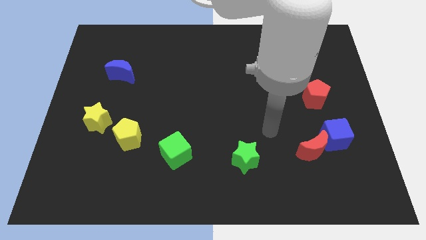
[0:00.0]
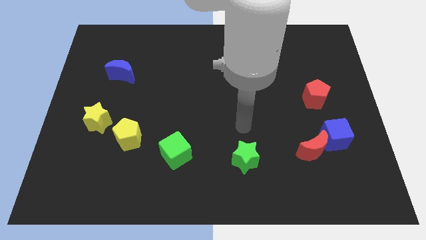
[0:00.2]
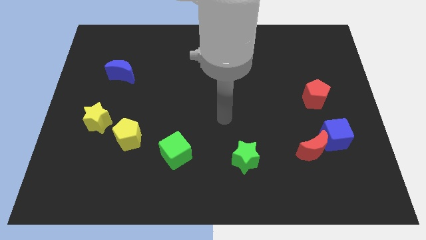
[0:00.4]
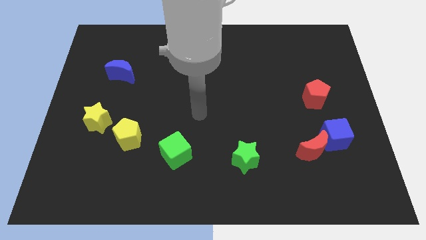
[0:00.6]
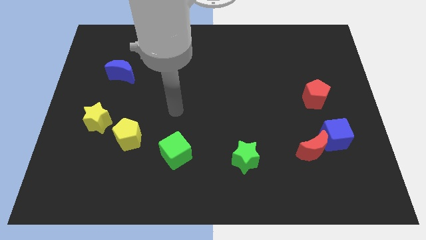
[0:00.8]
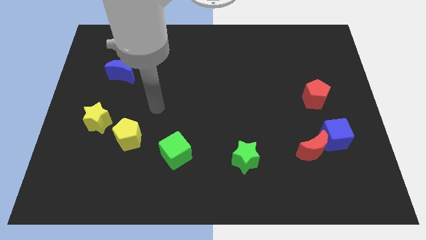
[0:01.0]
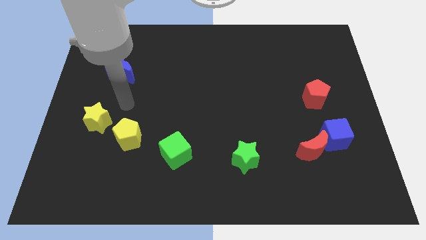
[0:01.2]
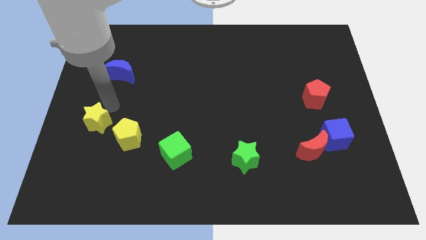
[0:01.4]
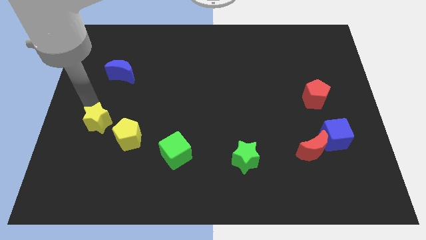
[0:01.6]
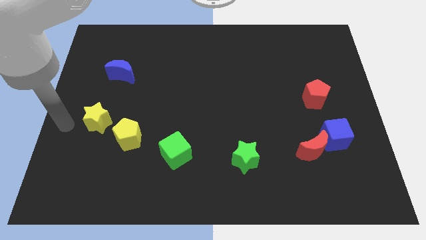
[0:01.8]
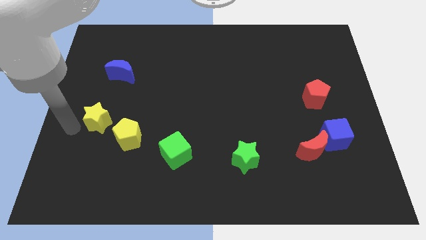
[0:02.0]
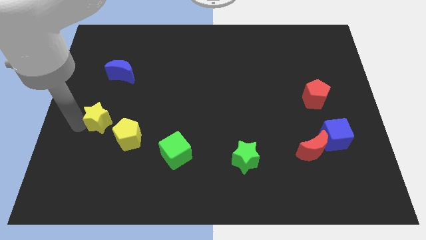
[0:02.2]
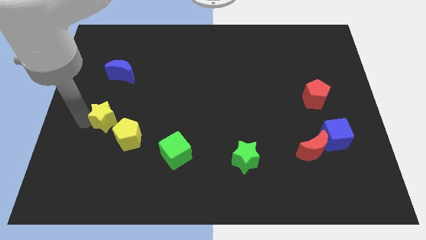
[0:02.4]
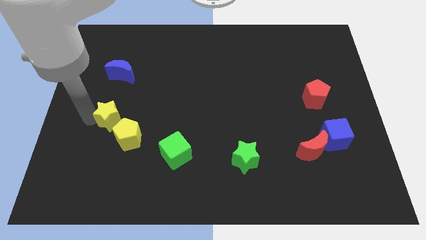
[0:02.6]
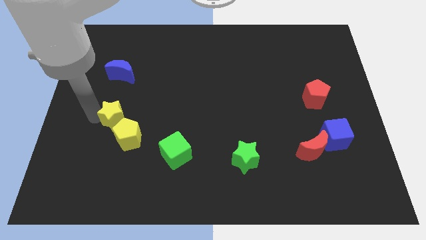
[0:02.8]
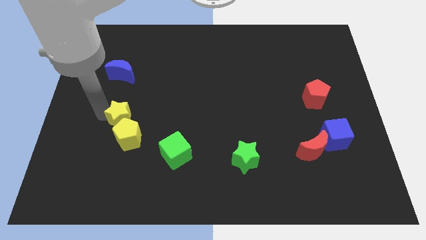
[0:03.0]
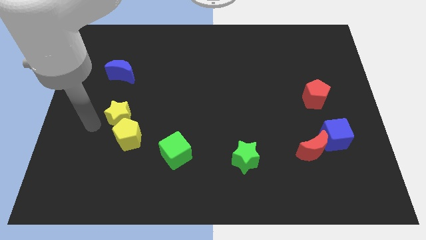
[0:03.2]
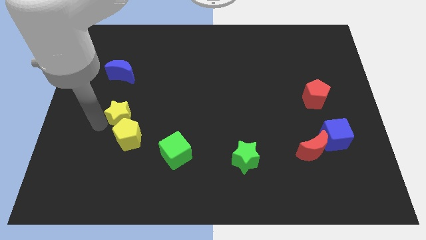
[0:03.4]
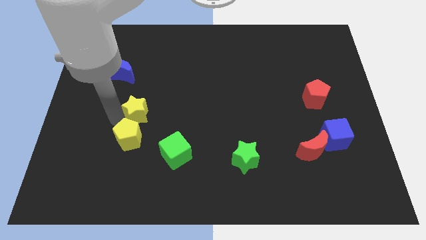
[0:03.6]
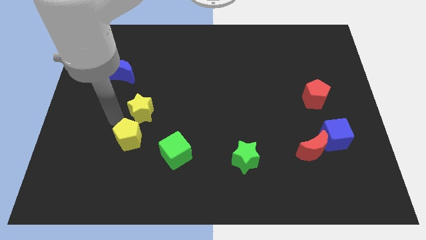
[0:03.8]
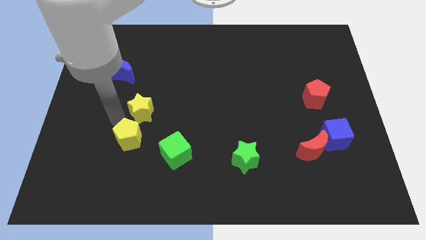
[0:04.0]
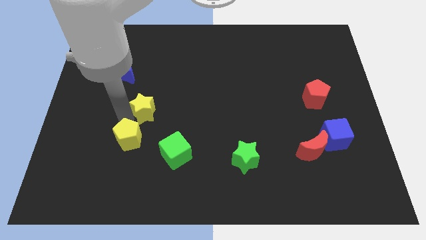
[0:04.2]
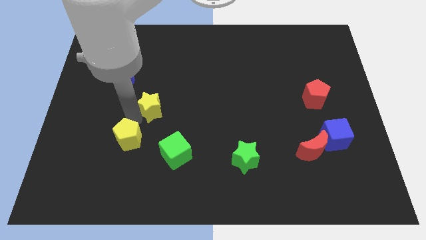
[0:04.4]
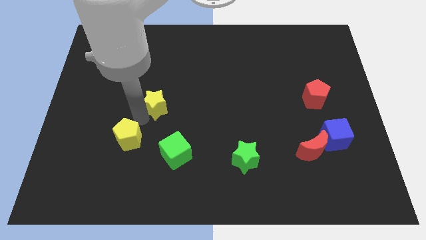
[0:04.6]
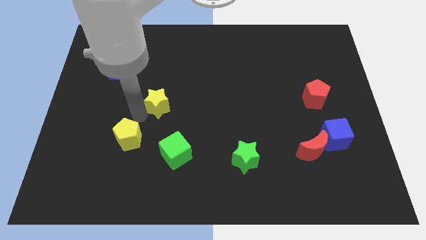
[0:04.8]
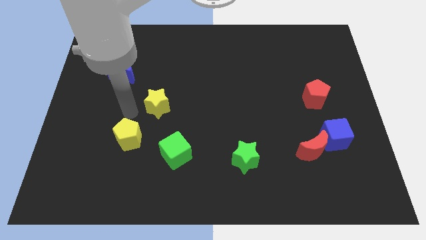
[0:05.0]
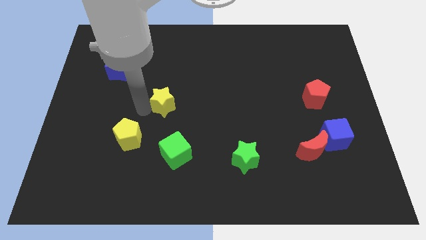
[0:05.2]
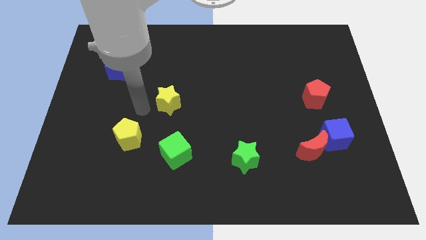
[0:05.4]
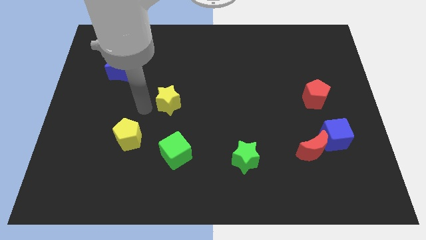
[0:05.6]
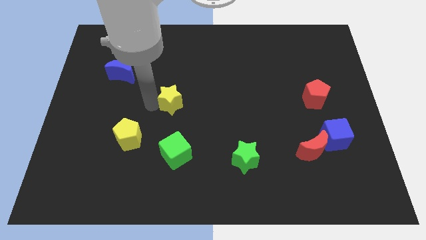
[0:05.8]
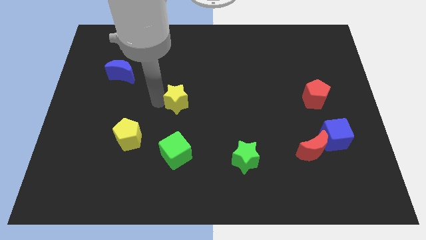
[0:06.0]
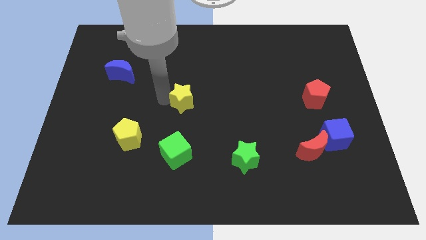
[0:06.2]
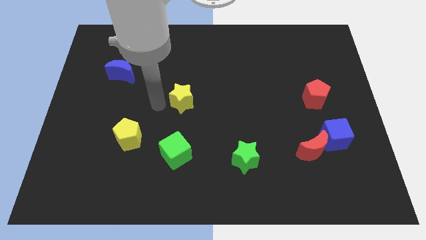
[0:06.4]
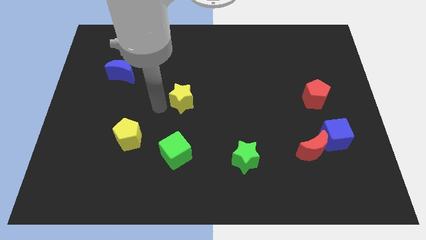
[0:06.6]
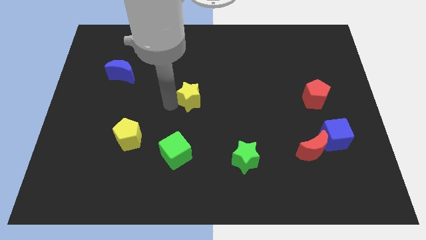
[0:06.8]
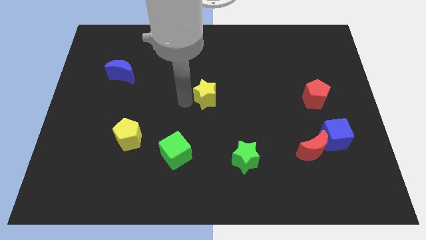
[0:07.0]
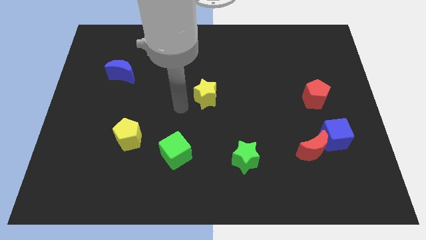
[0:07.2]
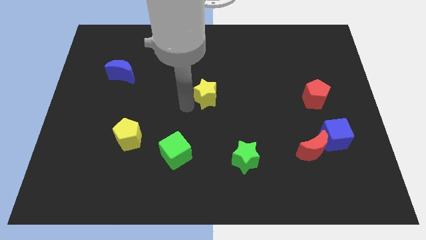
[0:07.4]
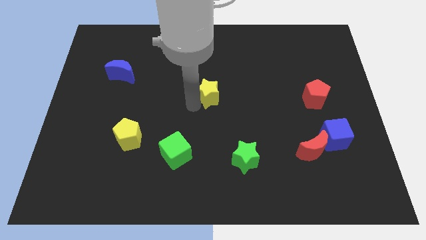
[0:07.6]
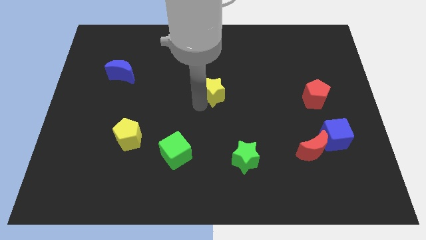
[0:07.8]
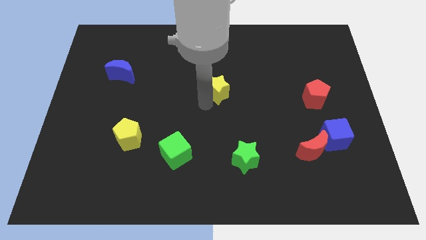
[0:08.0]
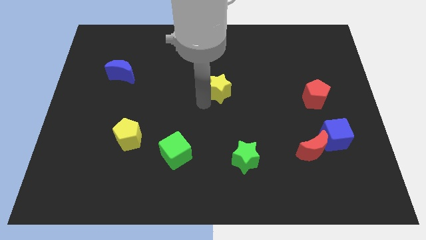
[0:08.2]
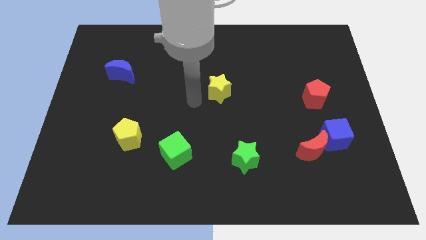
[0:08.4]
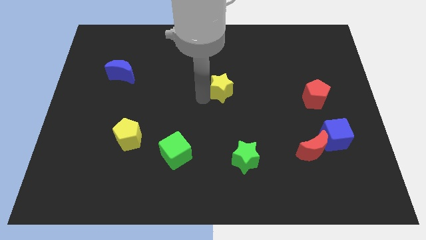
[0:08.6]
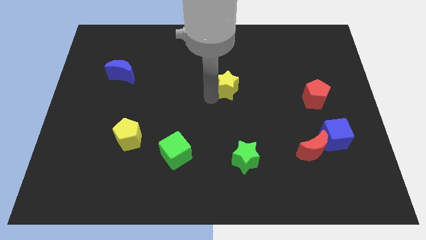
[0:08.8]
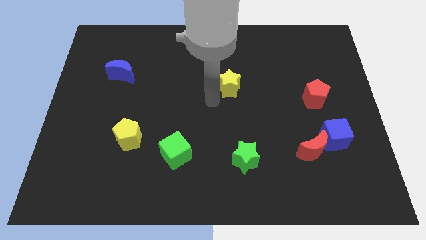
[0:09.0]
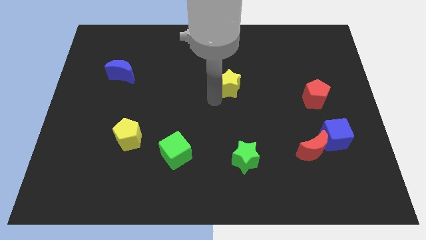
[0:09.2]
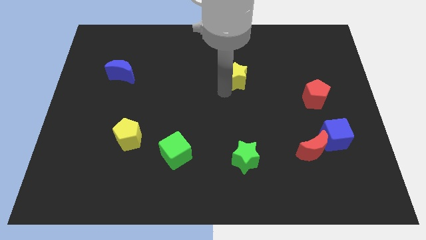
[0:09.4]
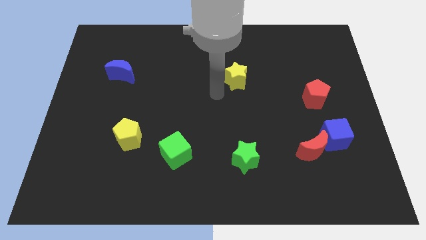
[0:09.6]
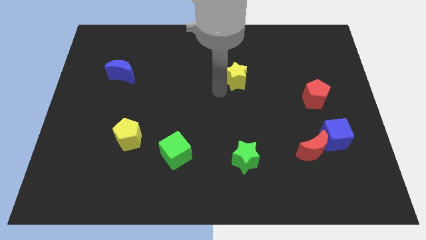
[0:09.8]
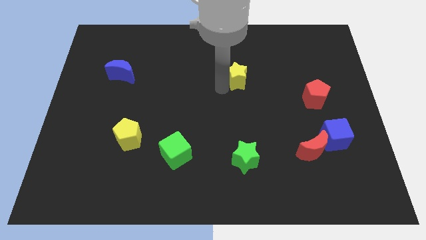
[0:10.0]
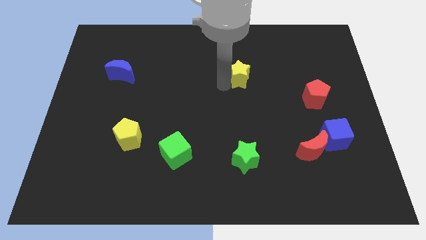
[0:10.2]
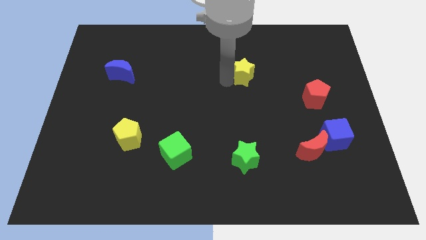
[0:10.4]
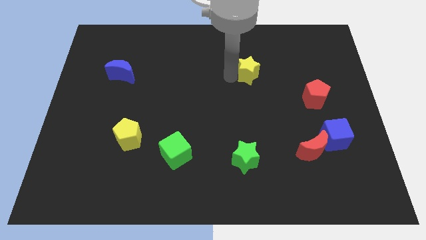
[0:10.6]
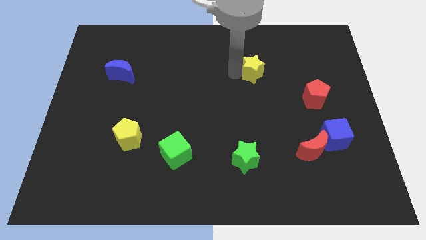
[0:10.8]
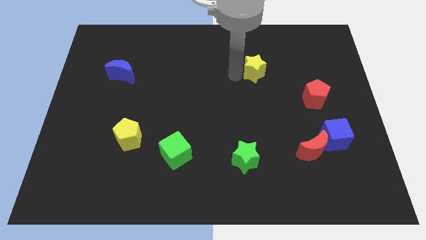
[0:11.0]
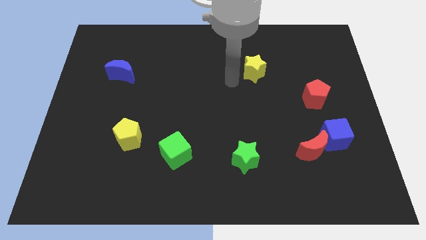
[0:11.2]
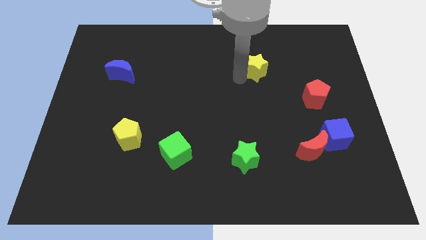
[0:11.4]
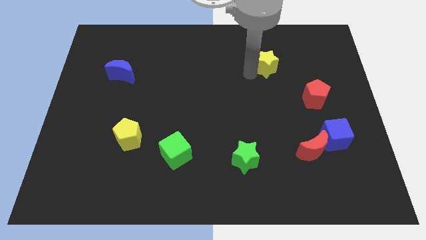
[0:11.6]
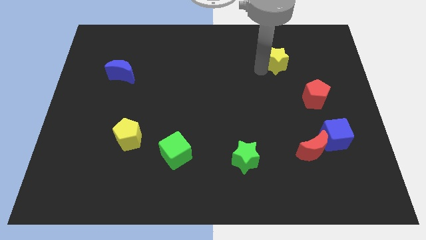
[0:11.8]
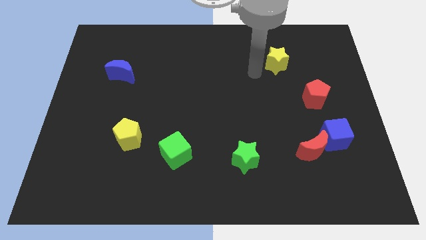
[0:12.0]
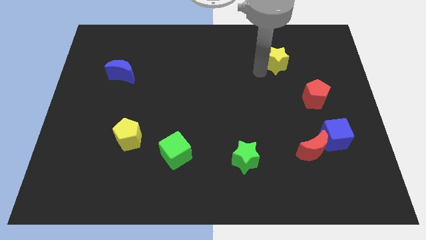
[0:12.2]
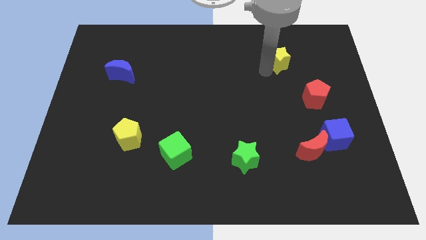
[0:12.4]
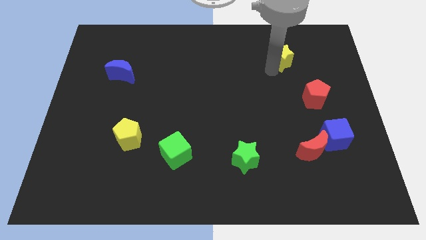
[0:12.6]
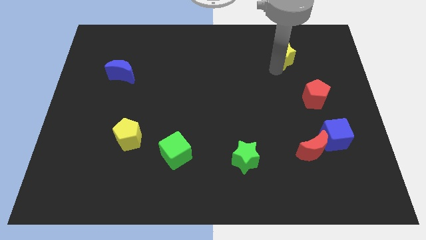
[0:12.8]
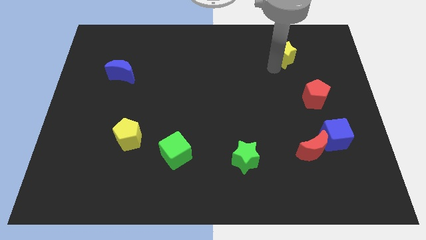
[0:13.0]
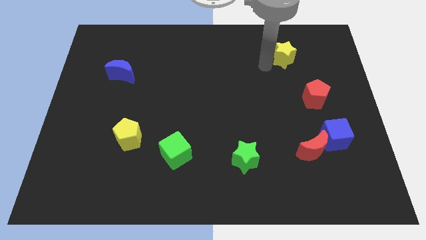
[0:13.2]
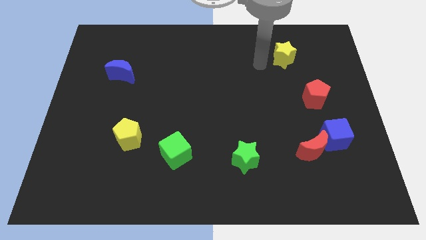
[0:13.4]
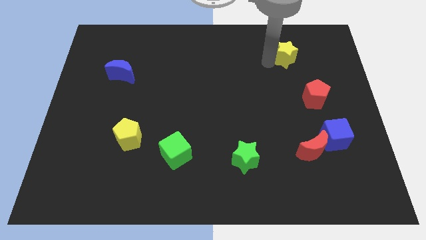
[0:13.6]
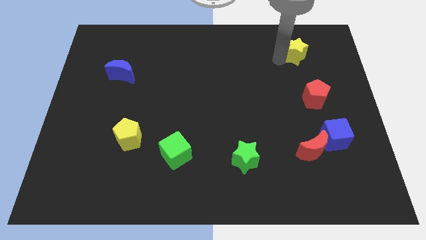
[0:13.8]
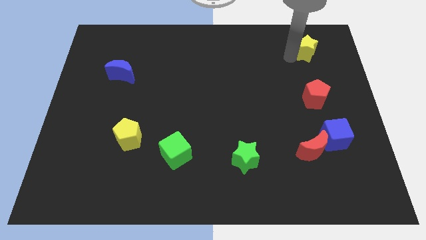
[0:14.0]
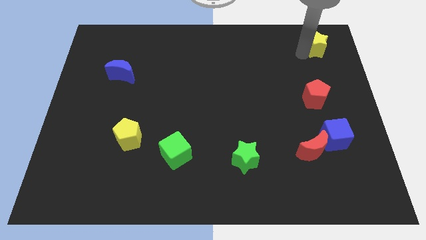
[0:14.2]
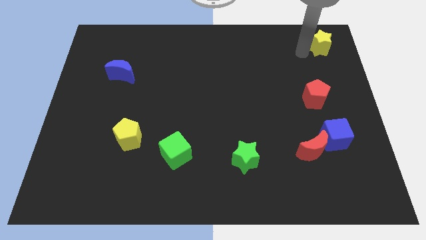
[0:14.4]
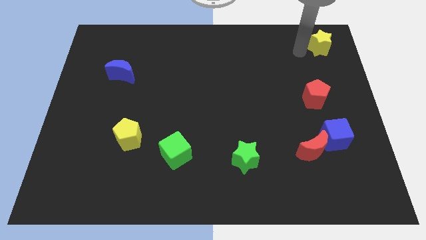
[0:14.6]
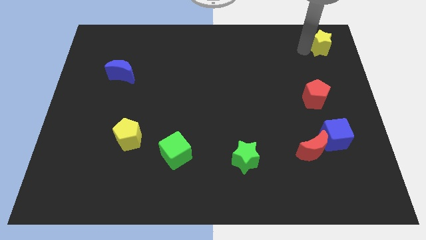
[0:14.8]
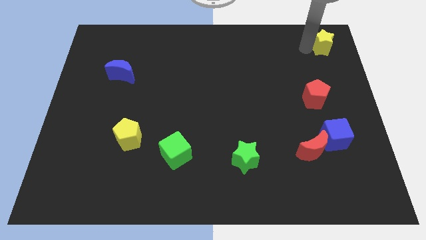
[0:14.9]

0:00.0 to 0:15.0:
put the yellow star to the top right
